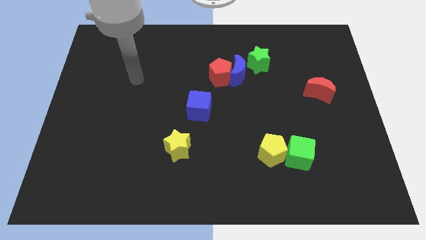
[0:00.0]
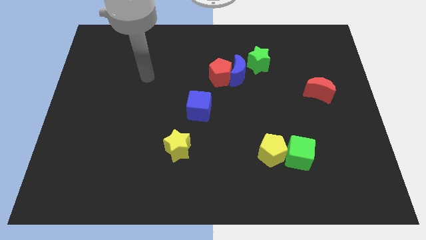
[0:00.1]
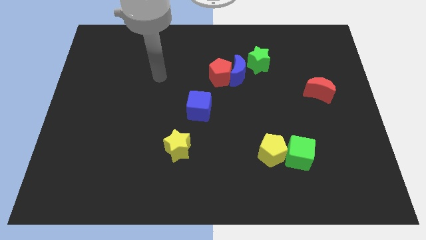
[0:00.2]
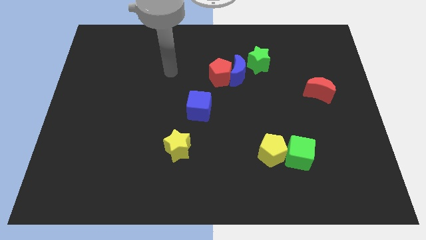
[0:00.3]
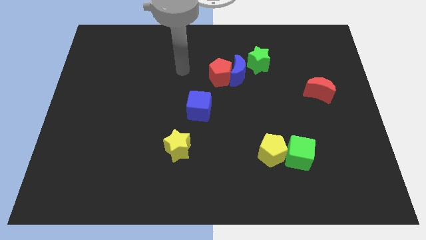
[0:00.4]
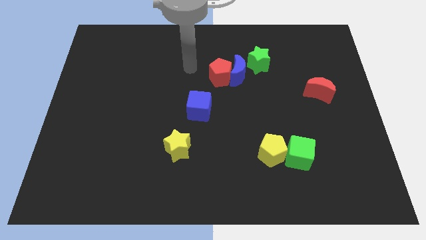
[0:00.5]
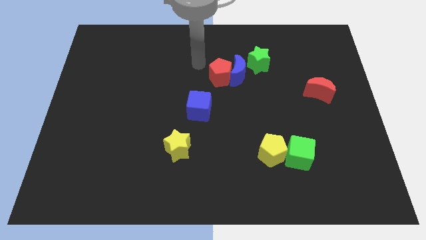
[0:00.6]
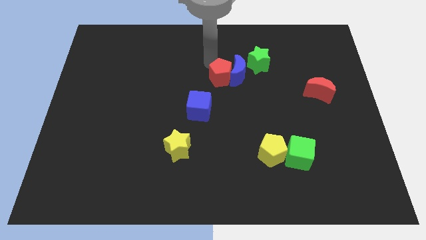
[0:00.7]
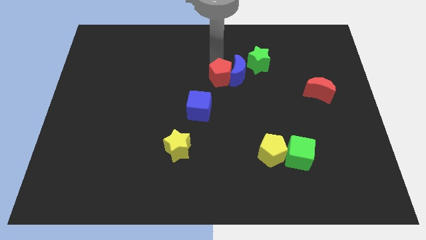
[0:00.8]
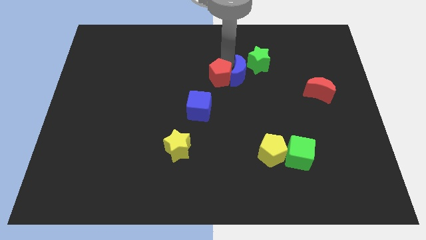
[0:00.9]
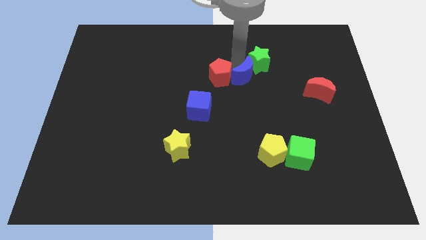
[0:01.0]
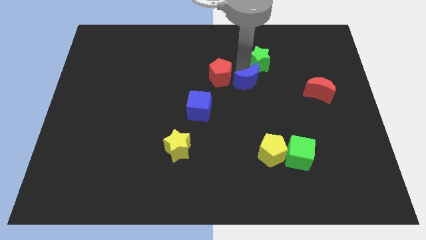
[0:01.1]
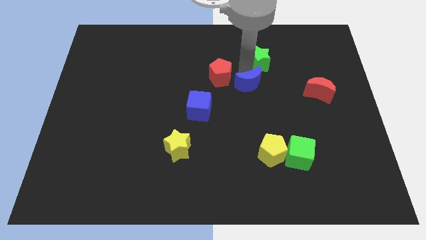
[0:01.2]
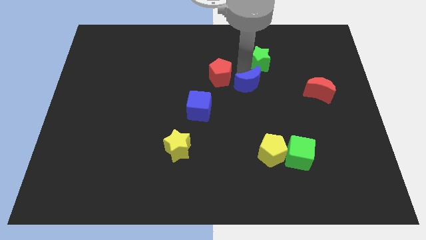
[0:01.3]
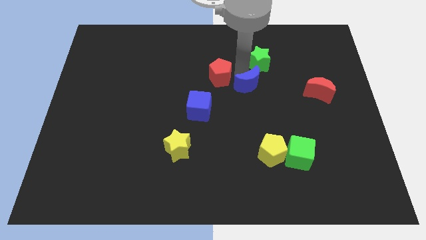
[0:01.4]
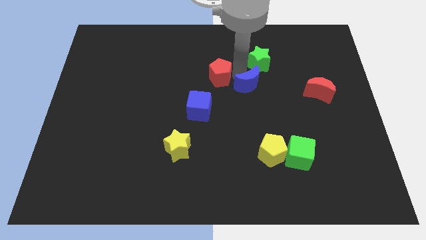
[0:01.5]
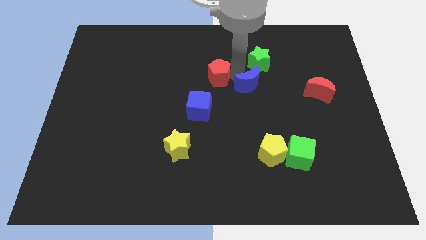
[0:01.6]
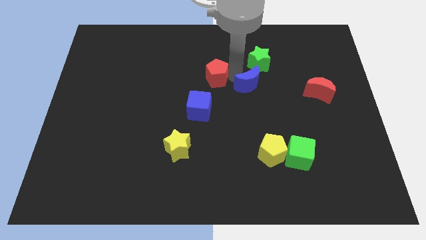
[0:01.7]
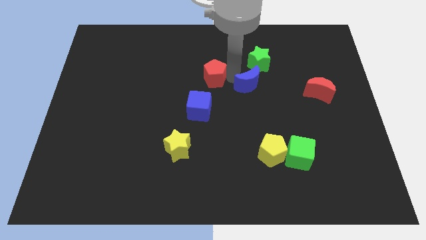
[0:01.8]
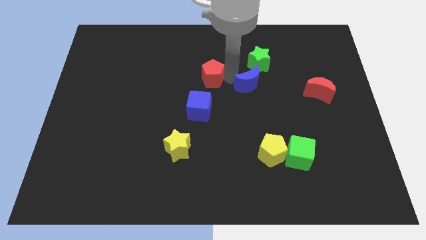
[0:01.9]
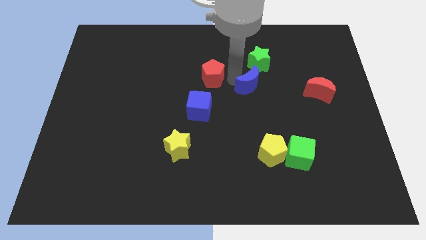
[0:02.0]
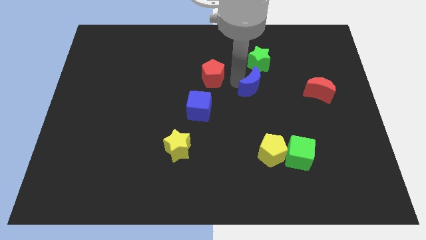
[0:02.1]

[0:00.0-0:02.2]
move the red pentagon away from the blue moon

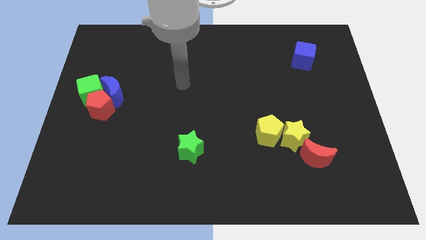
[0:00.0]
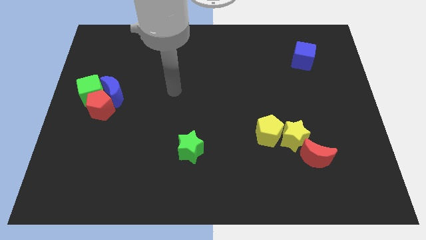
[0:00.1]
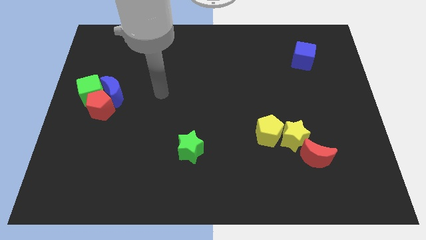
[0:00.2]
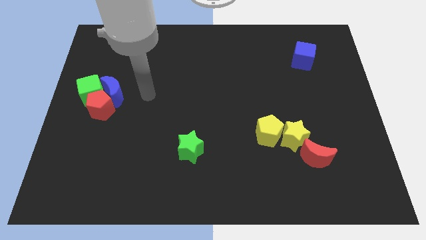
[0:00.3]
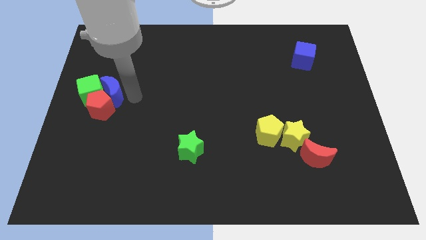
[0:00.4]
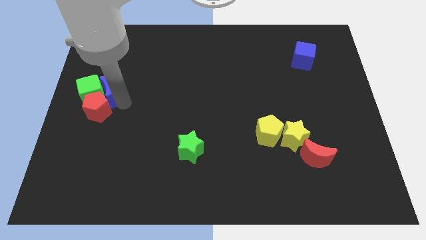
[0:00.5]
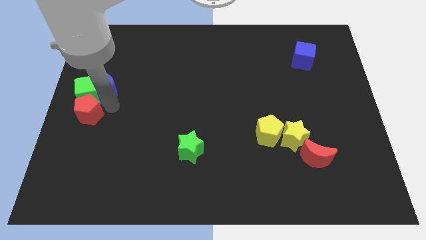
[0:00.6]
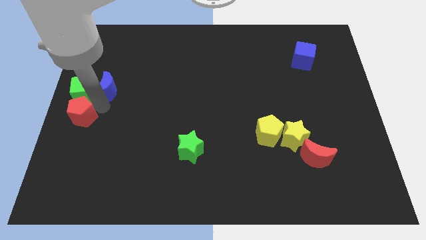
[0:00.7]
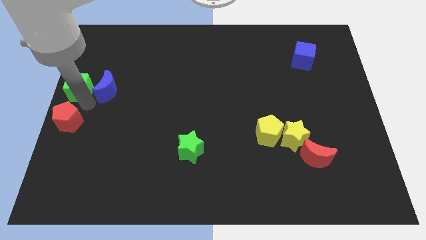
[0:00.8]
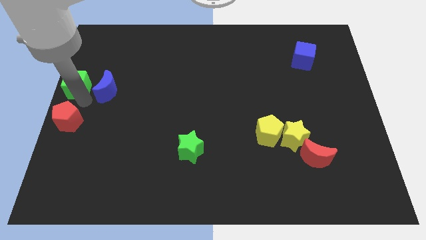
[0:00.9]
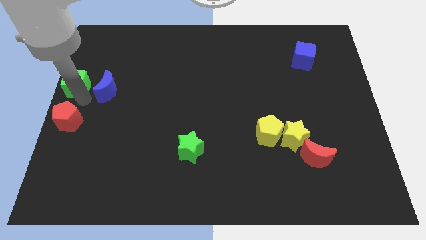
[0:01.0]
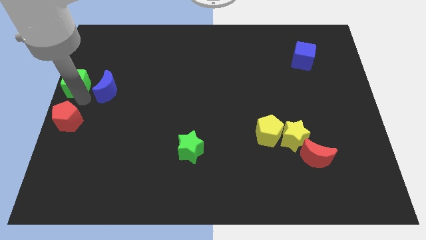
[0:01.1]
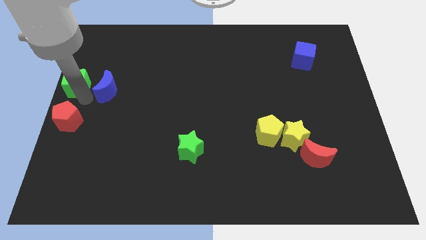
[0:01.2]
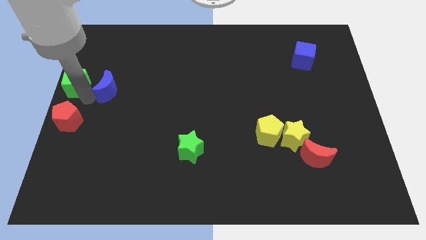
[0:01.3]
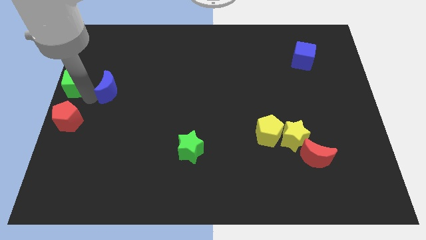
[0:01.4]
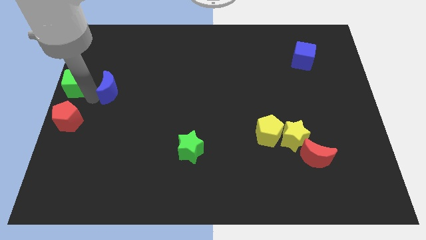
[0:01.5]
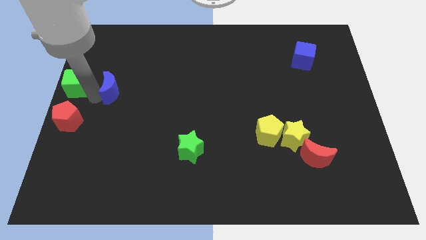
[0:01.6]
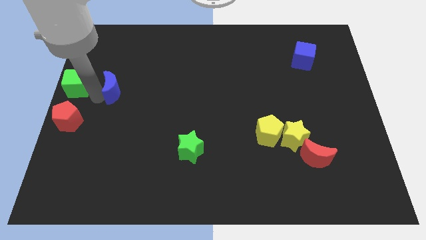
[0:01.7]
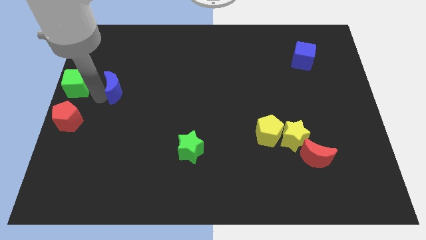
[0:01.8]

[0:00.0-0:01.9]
pull the blue moon apart from the red pentagon and green cube

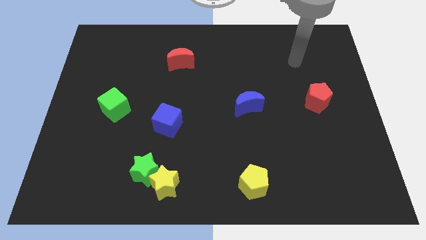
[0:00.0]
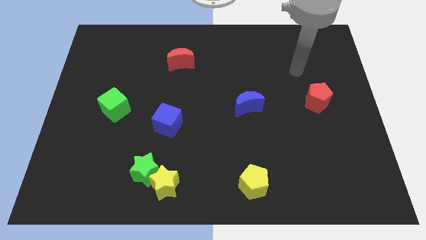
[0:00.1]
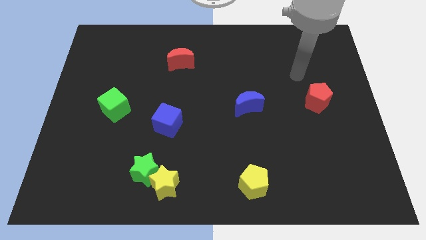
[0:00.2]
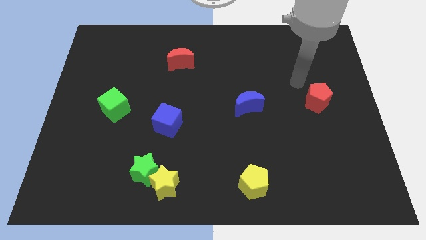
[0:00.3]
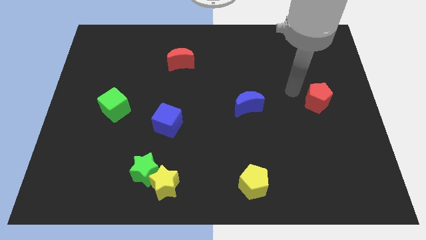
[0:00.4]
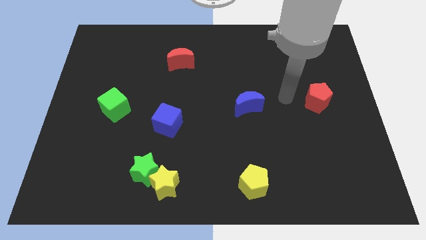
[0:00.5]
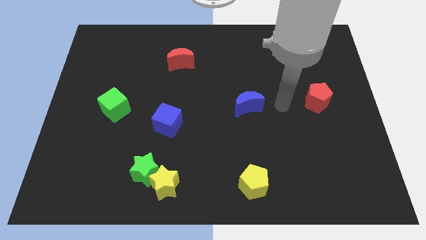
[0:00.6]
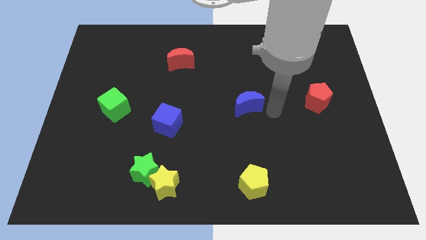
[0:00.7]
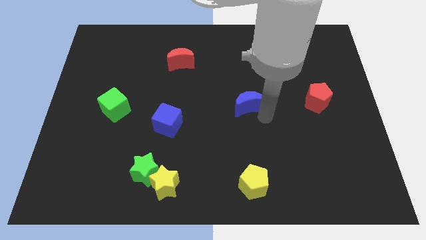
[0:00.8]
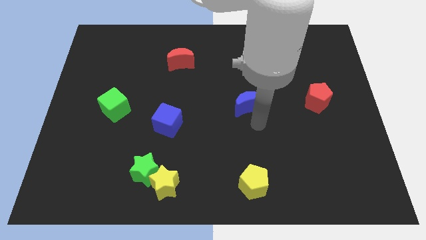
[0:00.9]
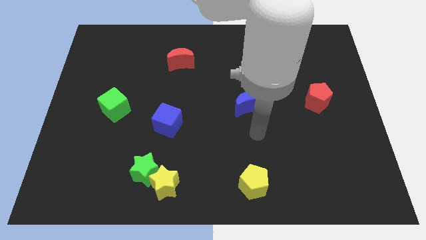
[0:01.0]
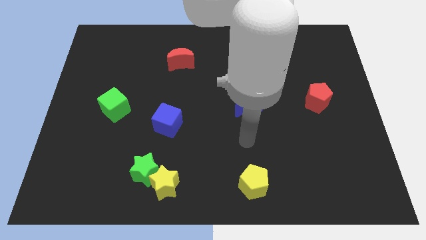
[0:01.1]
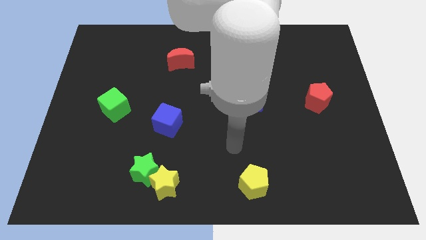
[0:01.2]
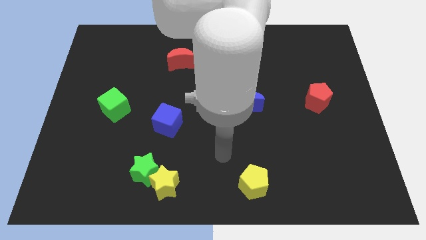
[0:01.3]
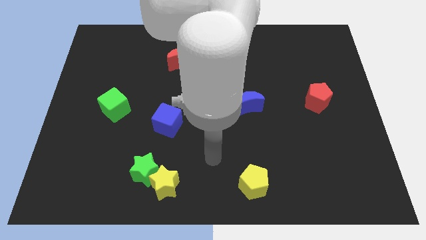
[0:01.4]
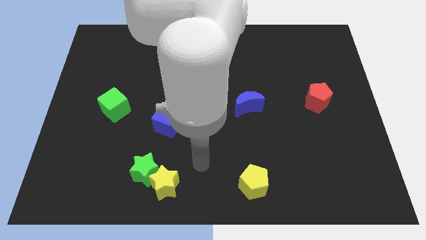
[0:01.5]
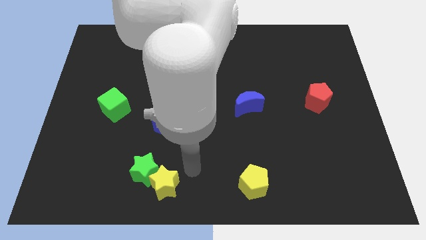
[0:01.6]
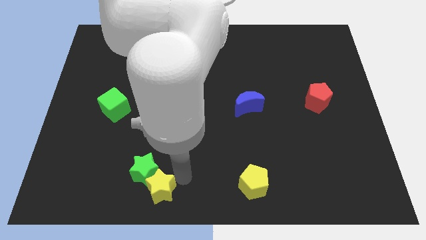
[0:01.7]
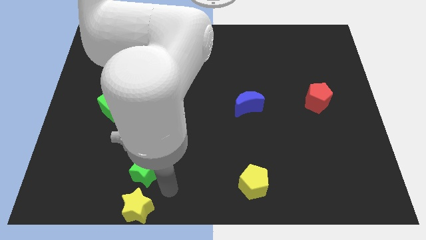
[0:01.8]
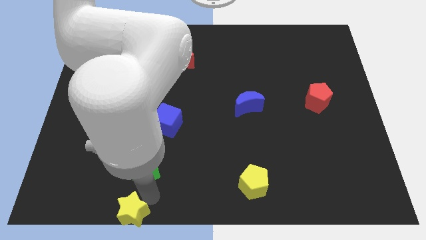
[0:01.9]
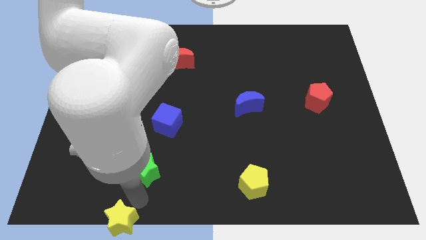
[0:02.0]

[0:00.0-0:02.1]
separate the green star from the yellow star

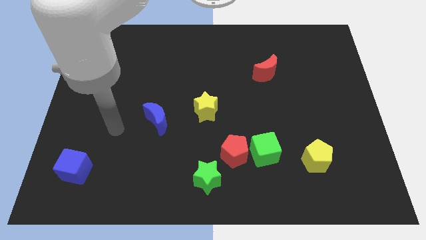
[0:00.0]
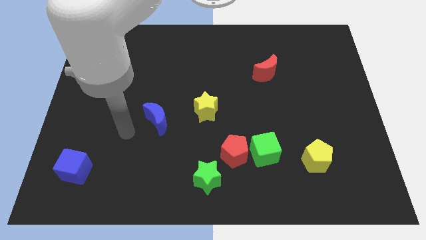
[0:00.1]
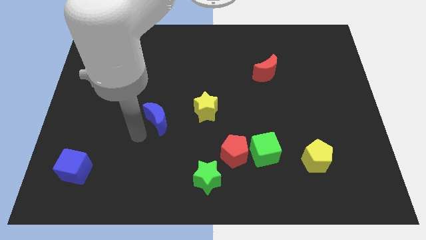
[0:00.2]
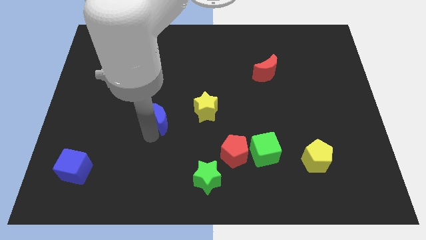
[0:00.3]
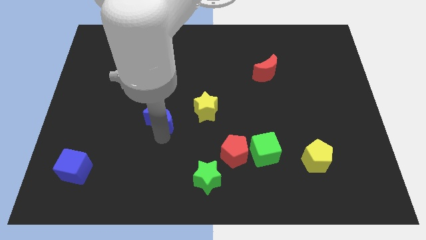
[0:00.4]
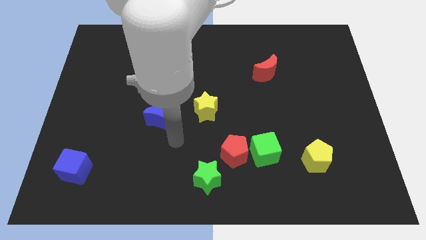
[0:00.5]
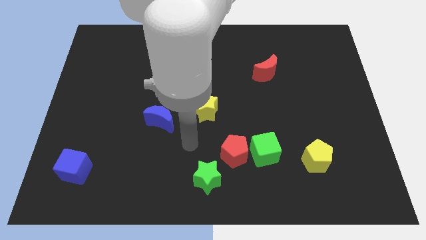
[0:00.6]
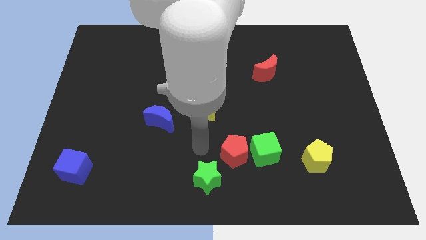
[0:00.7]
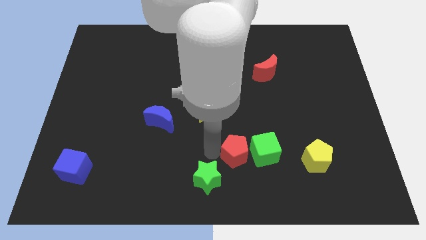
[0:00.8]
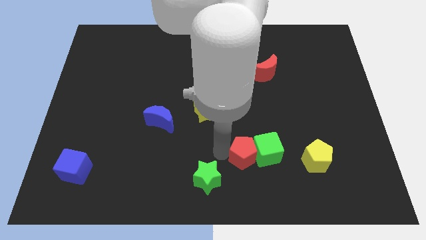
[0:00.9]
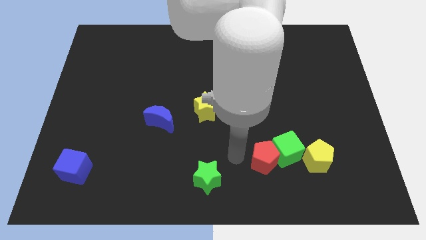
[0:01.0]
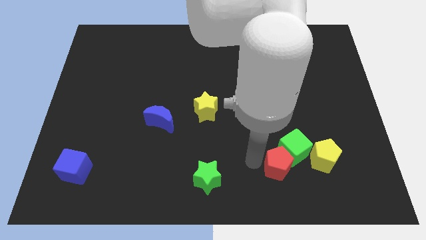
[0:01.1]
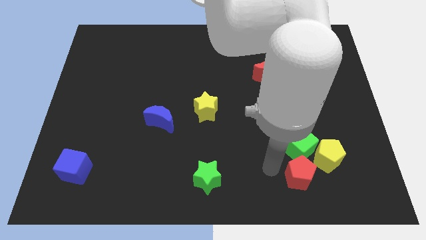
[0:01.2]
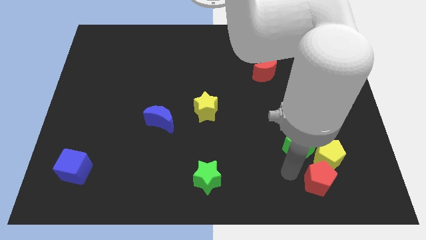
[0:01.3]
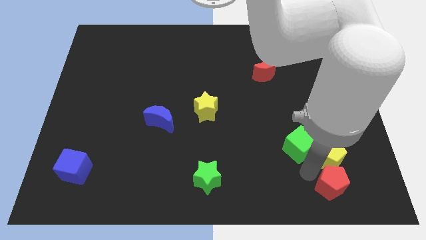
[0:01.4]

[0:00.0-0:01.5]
move the green cube away from the red pentagon

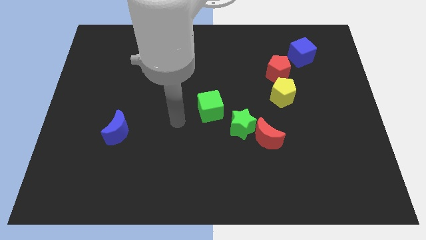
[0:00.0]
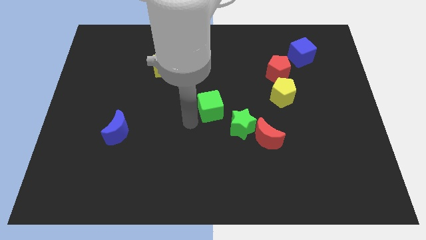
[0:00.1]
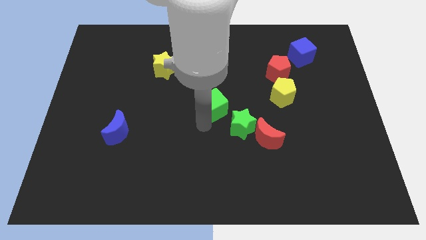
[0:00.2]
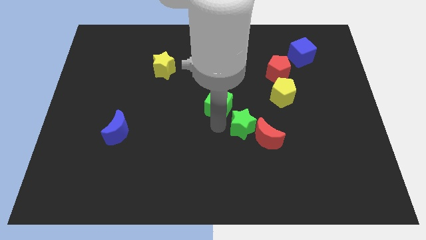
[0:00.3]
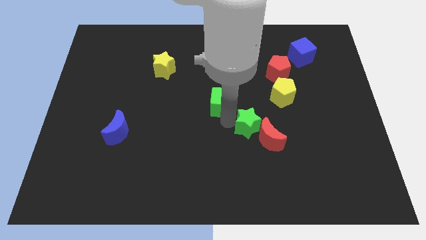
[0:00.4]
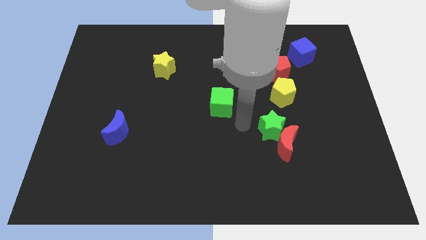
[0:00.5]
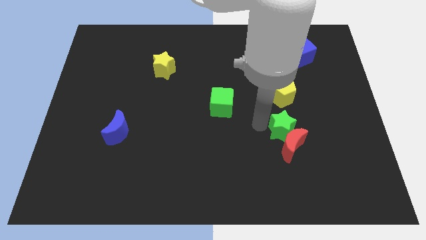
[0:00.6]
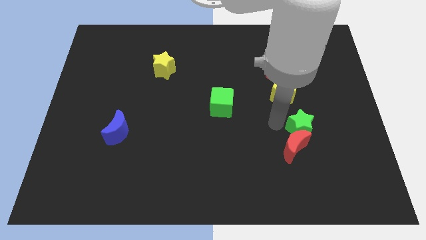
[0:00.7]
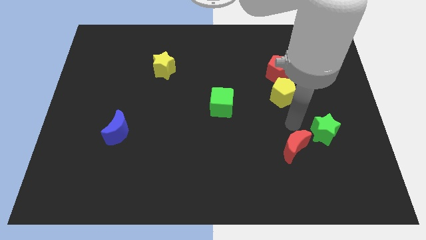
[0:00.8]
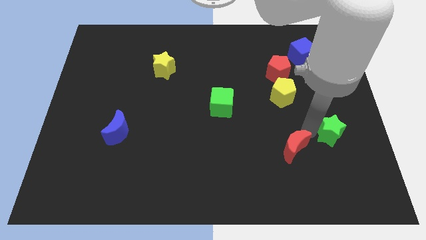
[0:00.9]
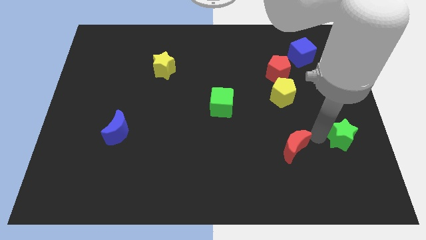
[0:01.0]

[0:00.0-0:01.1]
pull the red moon apart from the green star

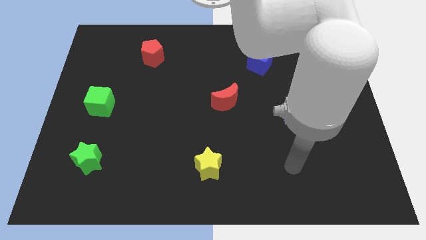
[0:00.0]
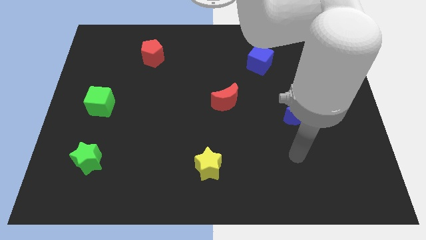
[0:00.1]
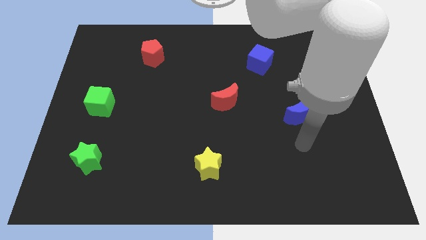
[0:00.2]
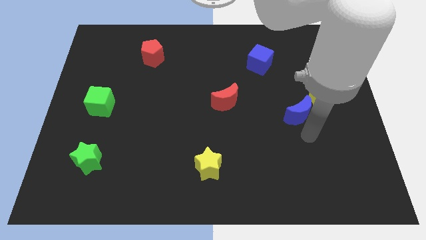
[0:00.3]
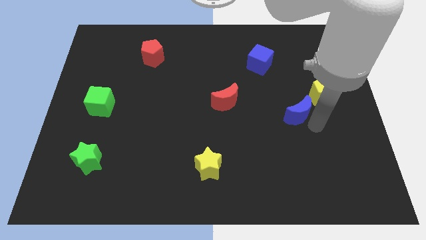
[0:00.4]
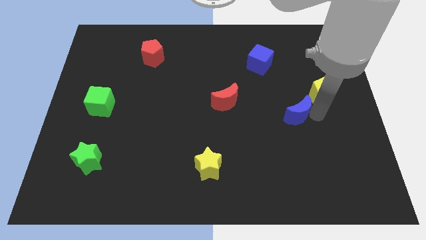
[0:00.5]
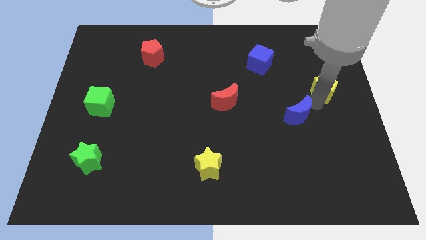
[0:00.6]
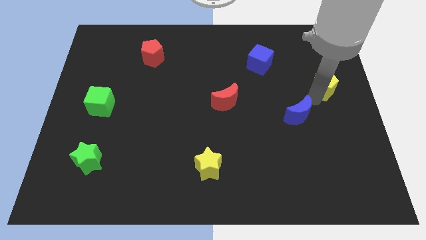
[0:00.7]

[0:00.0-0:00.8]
pull the blue moon apart from the yellow pentagon
